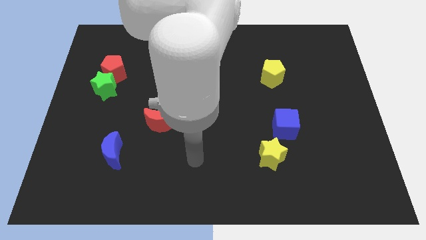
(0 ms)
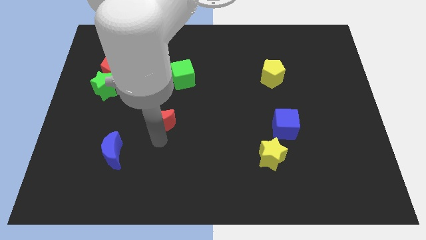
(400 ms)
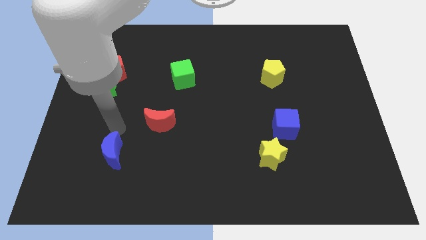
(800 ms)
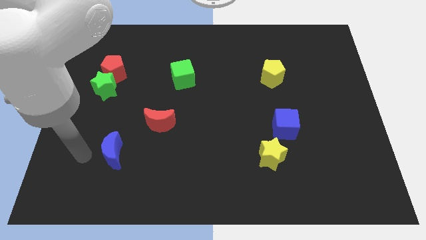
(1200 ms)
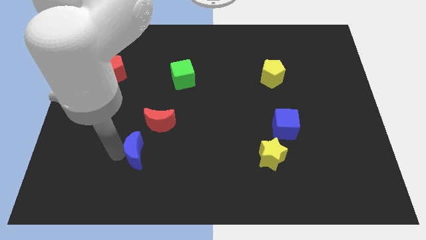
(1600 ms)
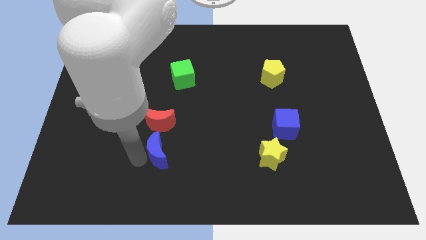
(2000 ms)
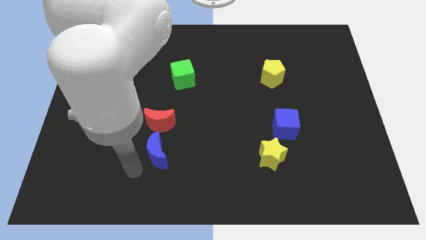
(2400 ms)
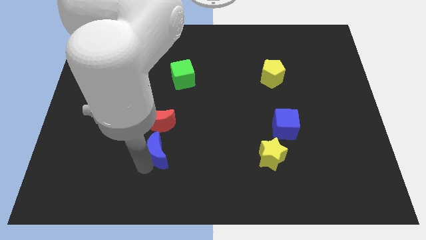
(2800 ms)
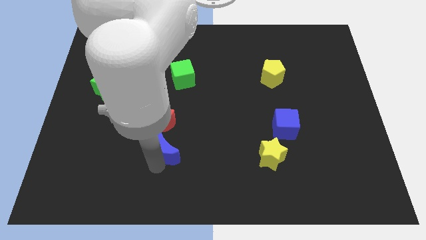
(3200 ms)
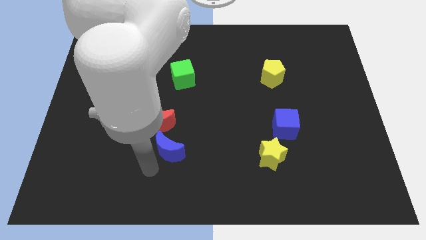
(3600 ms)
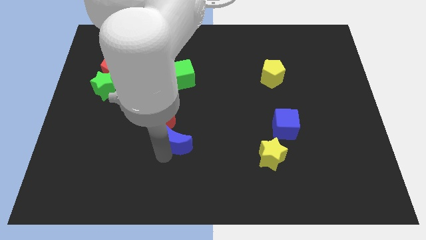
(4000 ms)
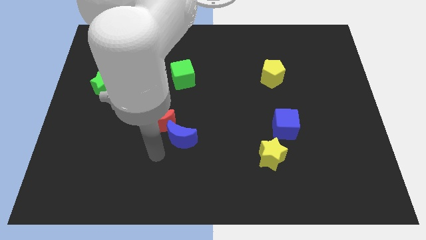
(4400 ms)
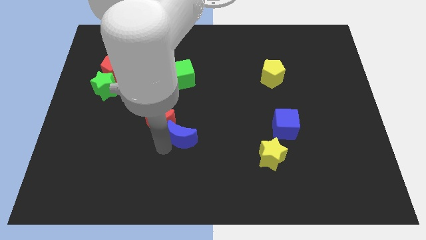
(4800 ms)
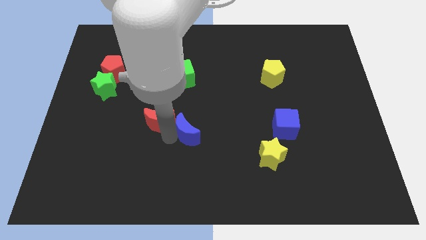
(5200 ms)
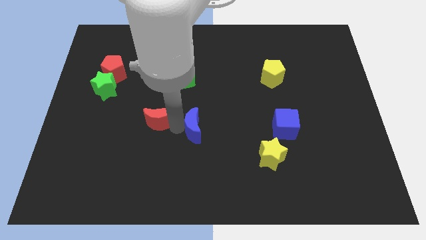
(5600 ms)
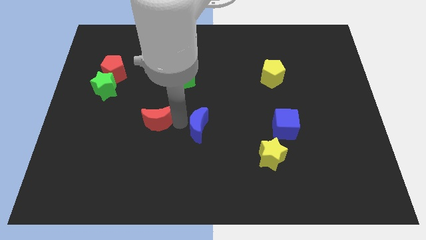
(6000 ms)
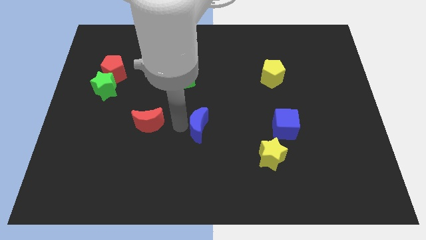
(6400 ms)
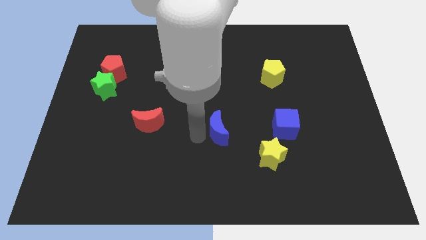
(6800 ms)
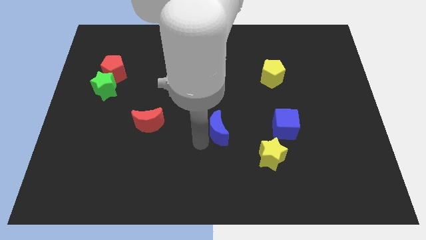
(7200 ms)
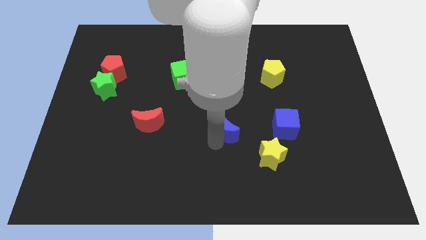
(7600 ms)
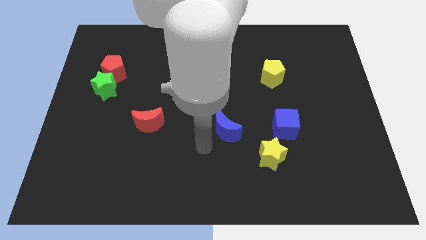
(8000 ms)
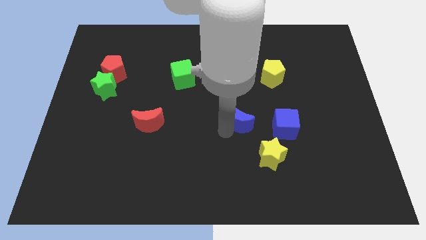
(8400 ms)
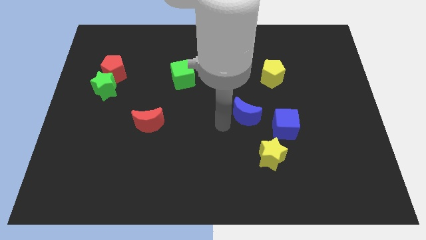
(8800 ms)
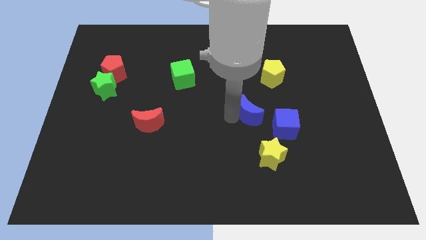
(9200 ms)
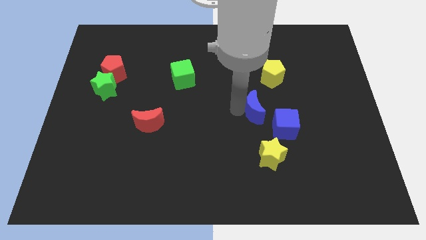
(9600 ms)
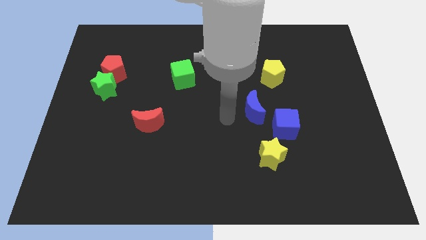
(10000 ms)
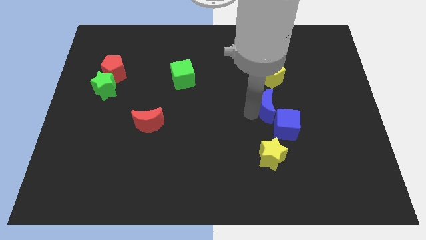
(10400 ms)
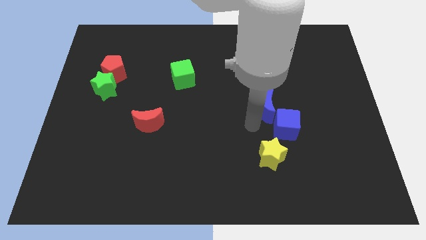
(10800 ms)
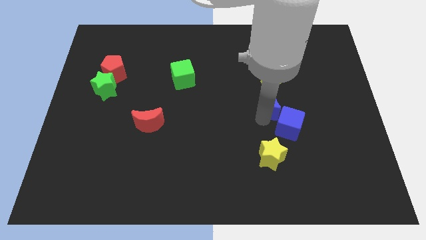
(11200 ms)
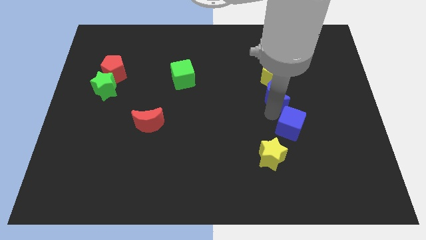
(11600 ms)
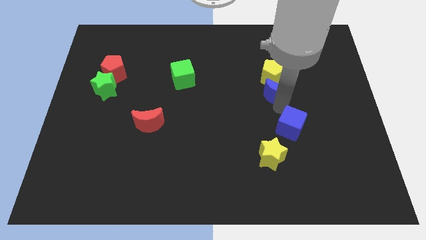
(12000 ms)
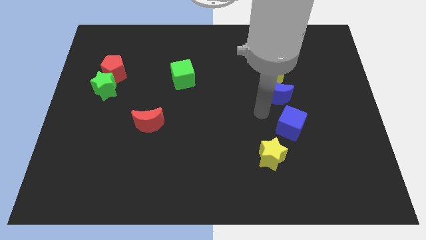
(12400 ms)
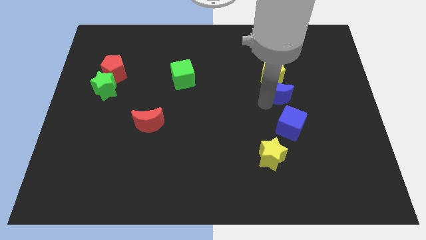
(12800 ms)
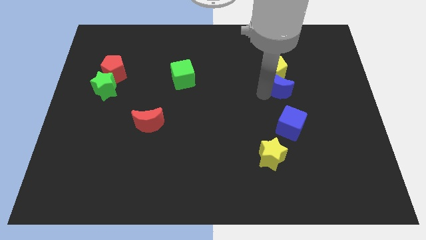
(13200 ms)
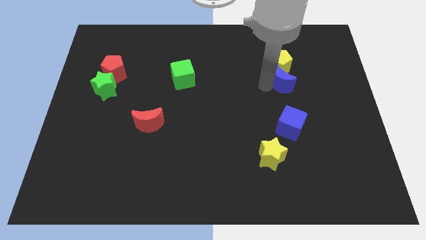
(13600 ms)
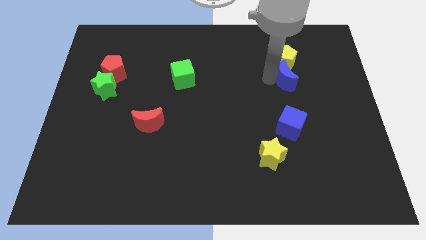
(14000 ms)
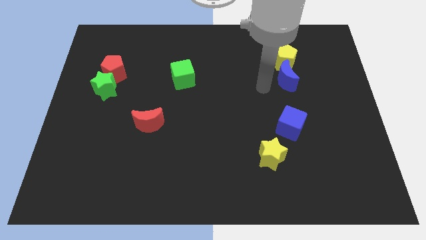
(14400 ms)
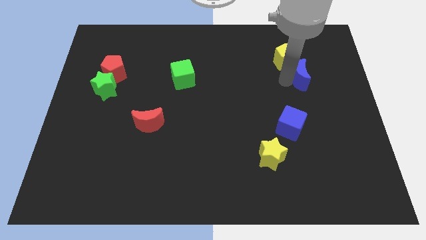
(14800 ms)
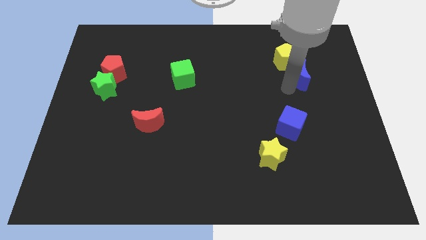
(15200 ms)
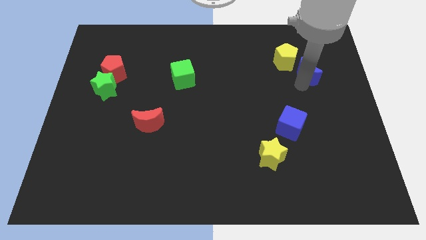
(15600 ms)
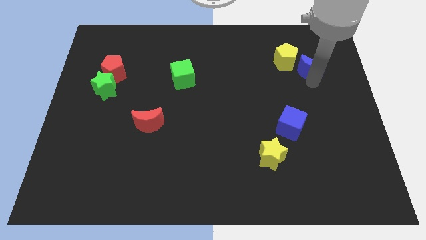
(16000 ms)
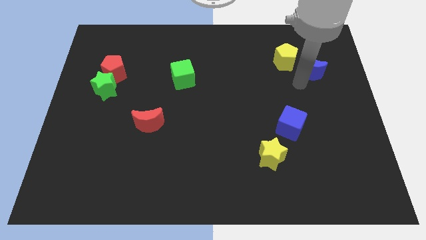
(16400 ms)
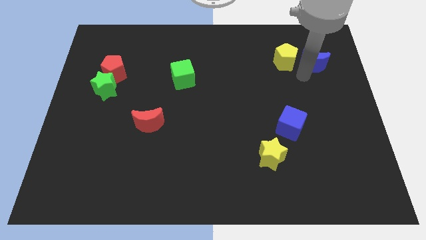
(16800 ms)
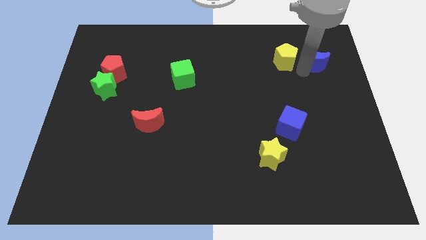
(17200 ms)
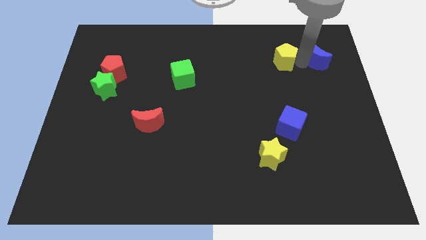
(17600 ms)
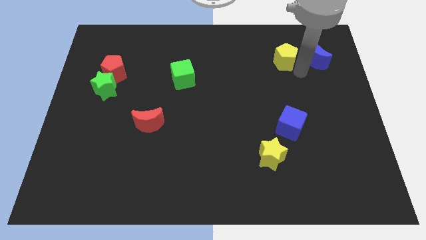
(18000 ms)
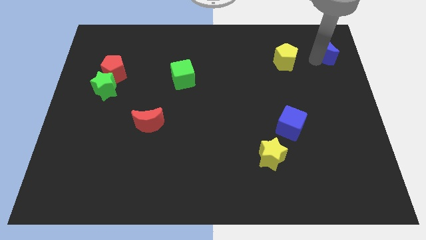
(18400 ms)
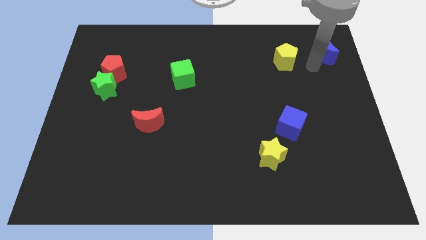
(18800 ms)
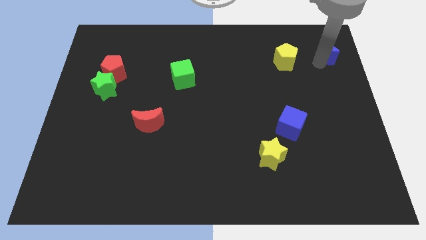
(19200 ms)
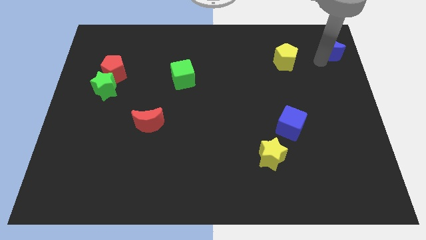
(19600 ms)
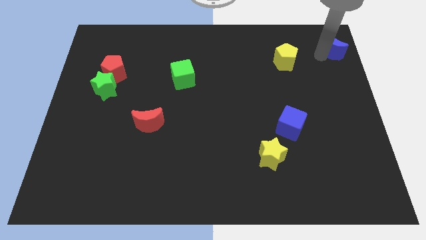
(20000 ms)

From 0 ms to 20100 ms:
slide the blue moon to the upper right corner

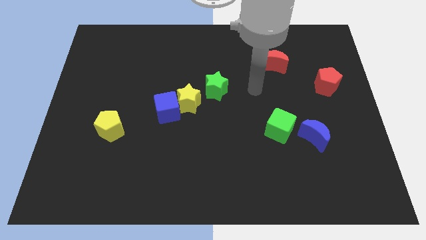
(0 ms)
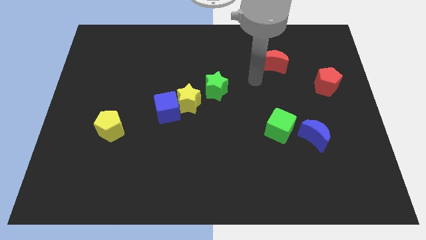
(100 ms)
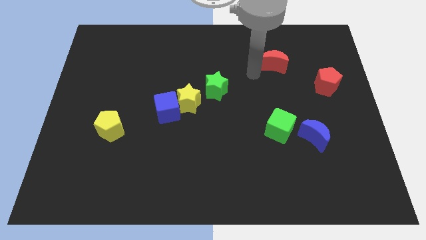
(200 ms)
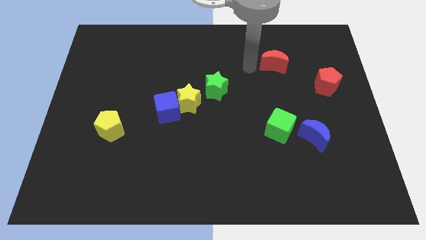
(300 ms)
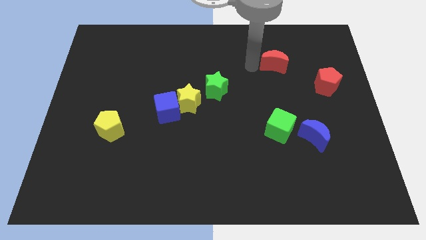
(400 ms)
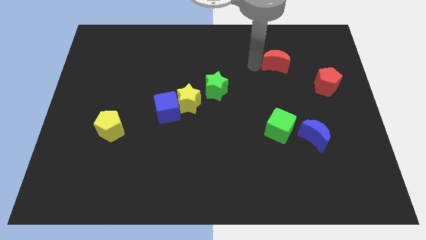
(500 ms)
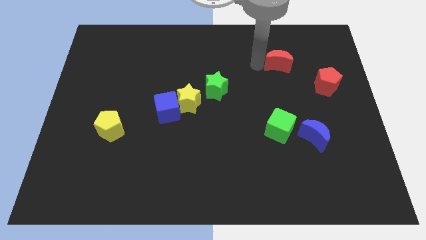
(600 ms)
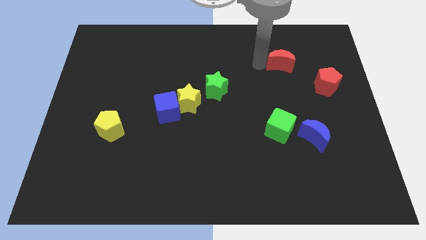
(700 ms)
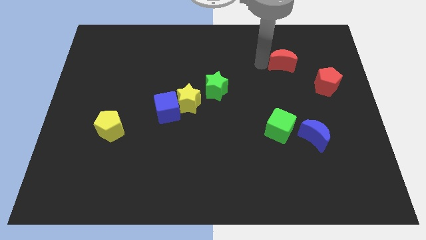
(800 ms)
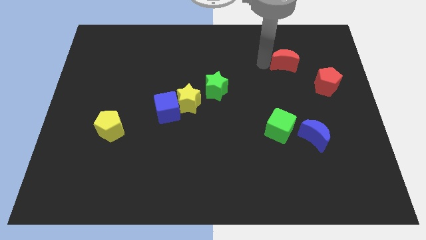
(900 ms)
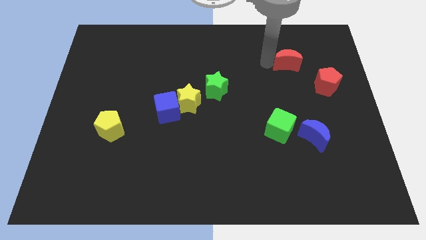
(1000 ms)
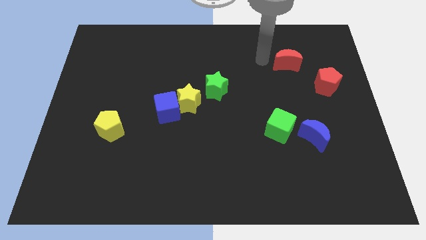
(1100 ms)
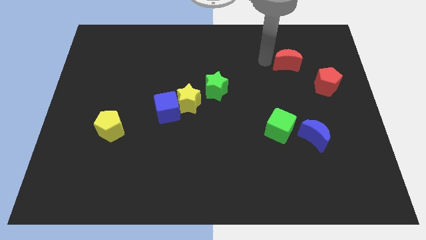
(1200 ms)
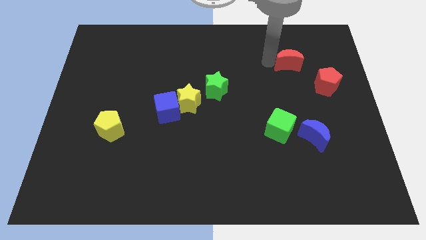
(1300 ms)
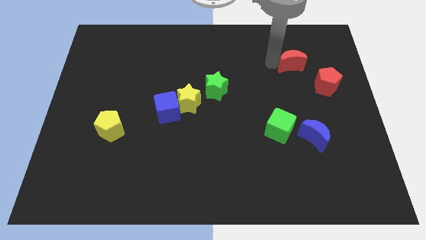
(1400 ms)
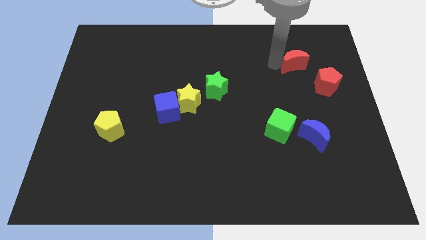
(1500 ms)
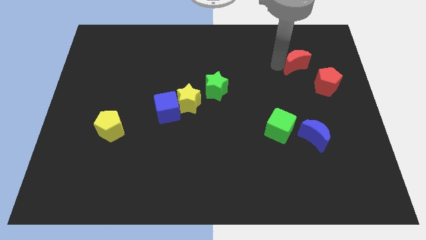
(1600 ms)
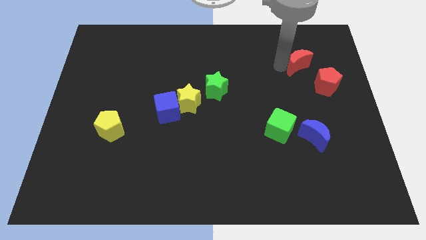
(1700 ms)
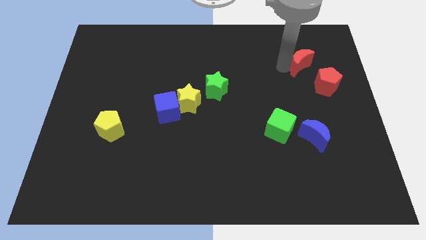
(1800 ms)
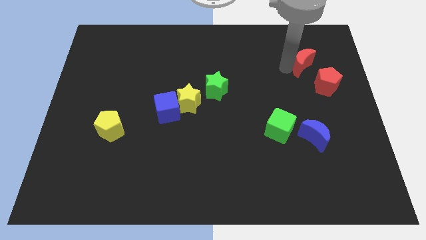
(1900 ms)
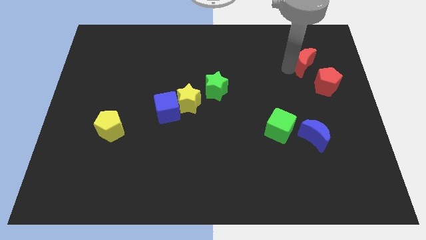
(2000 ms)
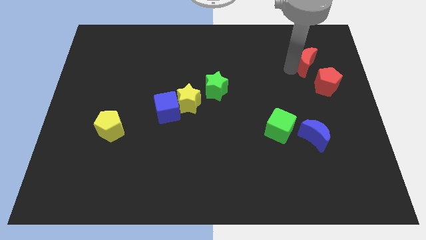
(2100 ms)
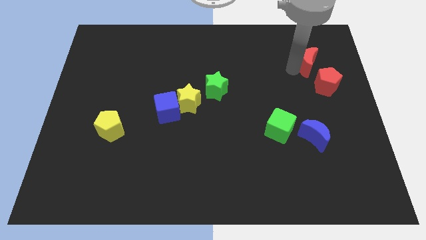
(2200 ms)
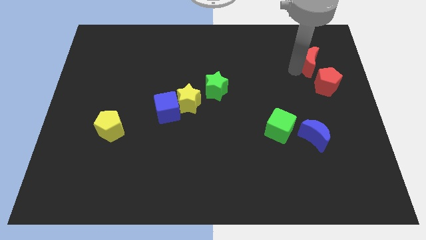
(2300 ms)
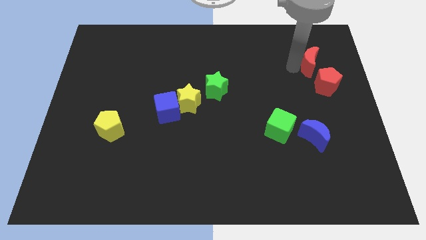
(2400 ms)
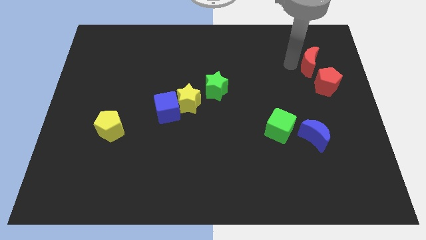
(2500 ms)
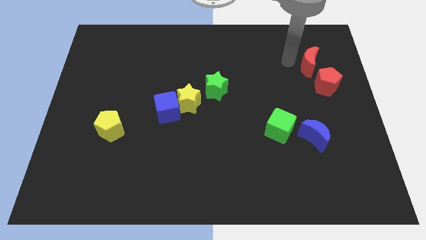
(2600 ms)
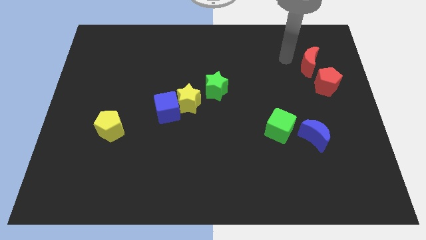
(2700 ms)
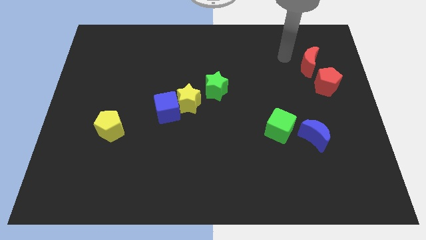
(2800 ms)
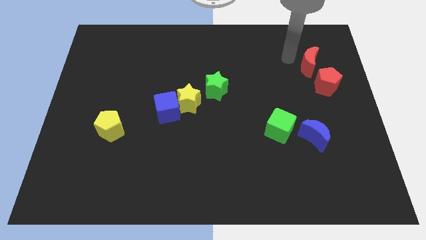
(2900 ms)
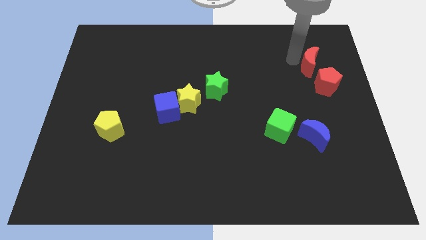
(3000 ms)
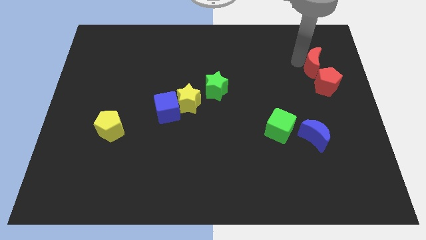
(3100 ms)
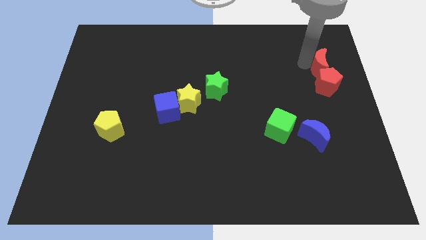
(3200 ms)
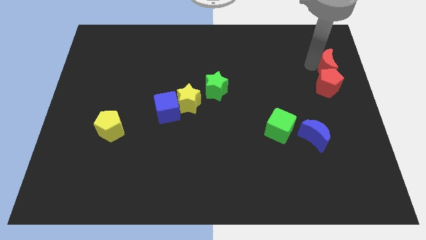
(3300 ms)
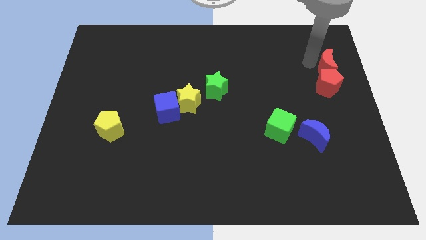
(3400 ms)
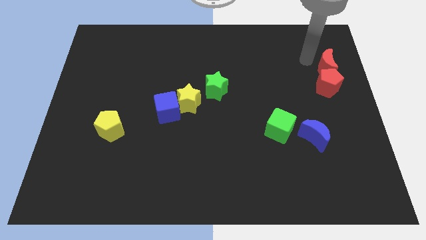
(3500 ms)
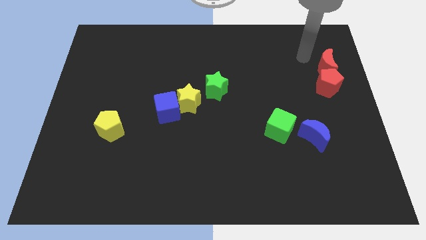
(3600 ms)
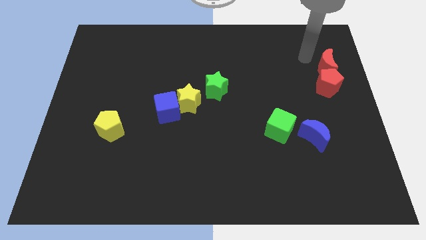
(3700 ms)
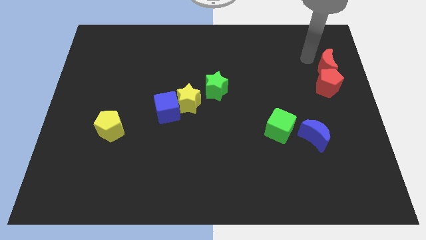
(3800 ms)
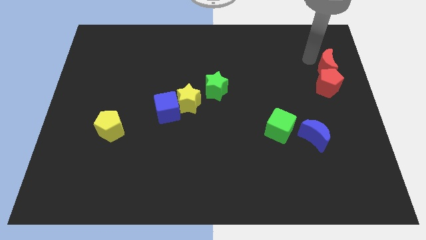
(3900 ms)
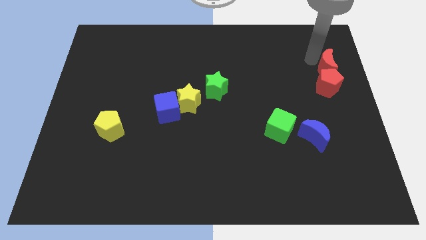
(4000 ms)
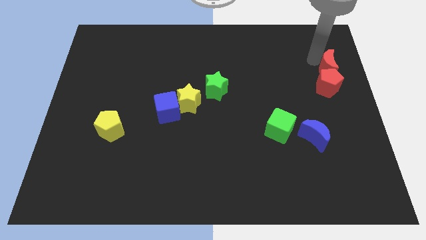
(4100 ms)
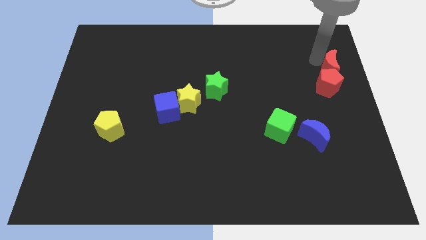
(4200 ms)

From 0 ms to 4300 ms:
push the red moon to the right side of the board
